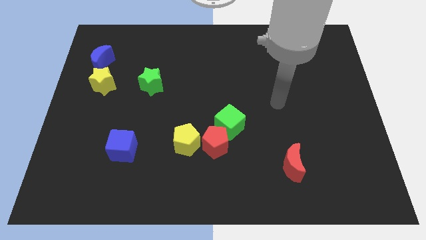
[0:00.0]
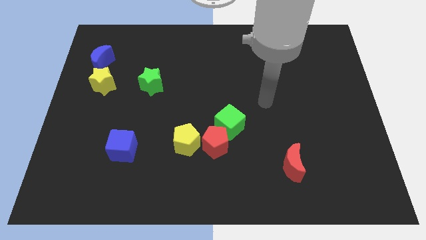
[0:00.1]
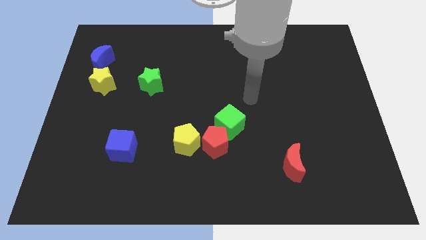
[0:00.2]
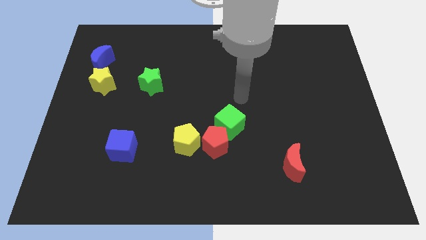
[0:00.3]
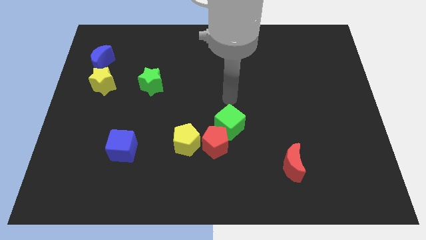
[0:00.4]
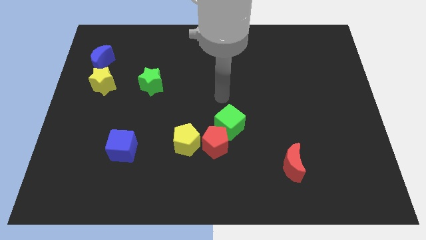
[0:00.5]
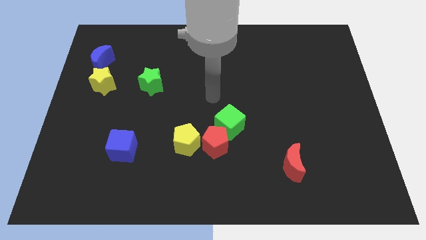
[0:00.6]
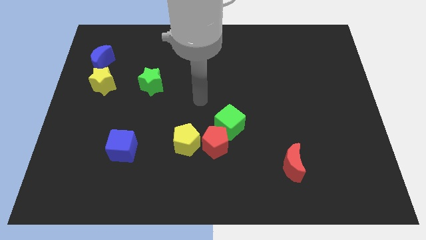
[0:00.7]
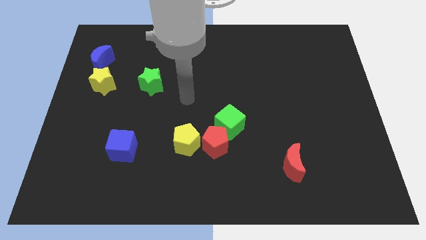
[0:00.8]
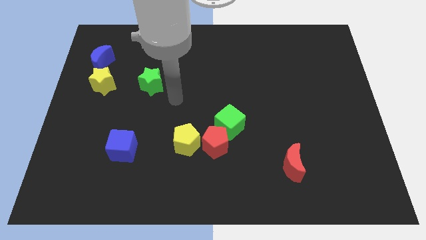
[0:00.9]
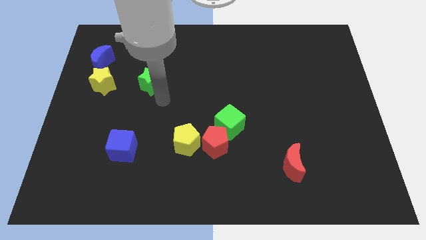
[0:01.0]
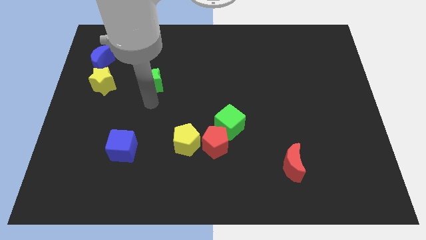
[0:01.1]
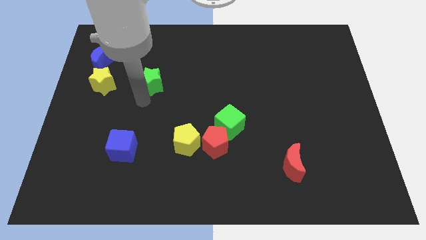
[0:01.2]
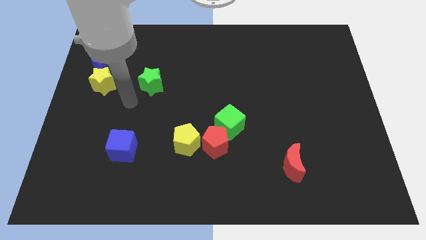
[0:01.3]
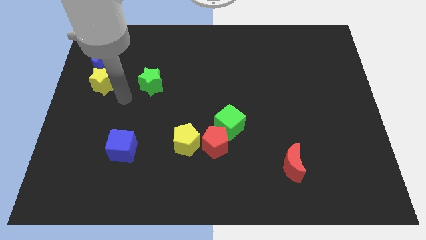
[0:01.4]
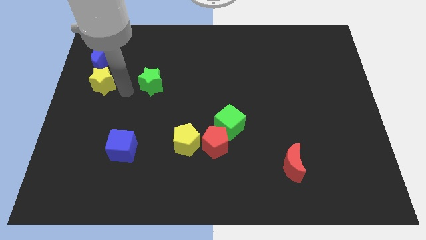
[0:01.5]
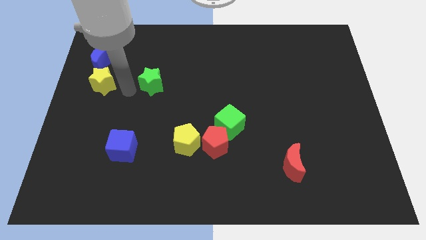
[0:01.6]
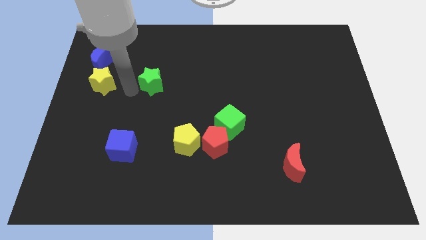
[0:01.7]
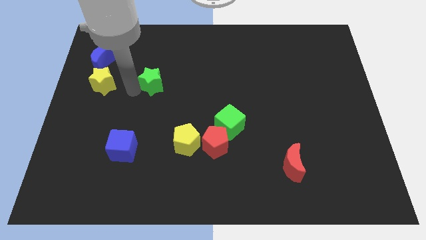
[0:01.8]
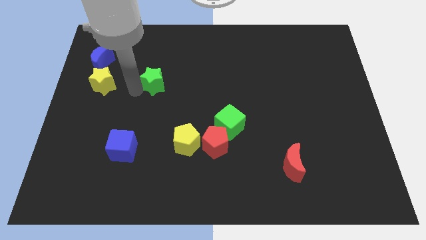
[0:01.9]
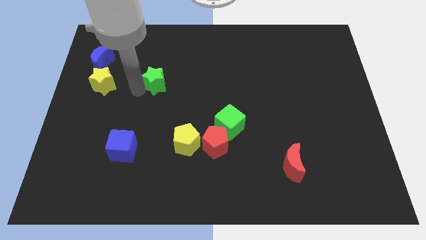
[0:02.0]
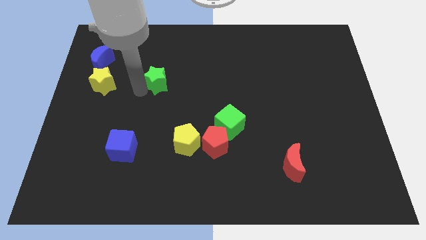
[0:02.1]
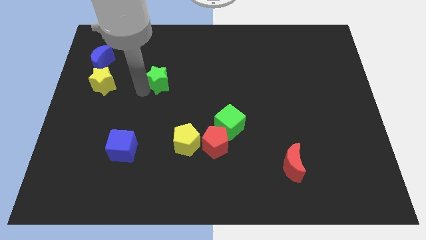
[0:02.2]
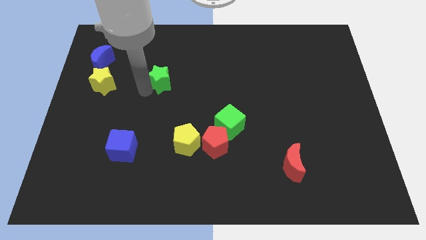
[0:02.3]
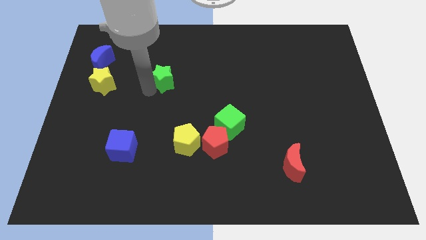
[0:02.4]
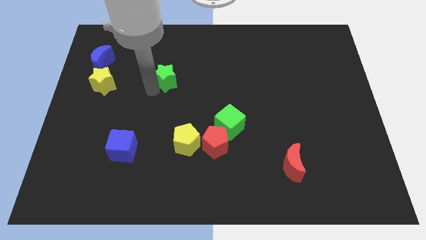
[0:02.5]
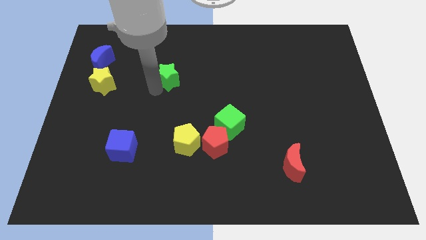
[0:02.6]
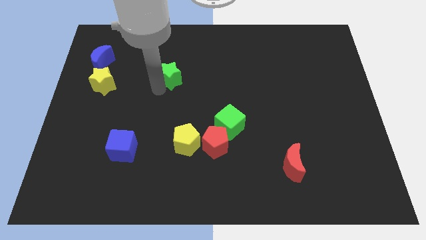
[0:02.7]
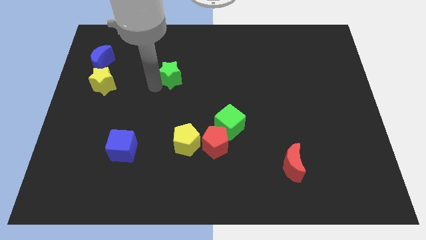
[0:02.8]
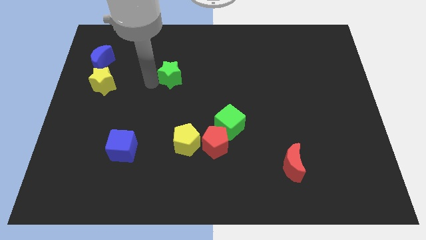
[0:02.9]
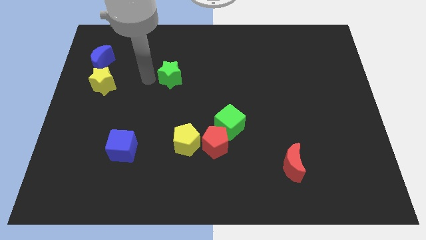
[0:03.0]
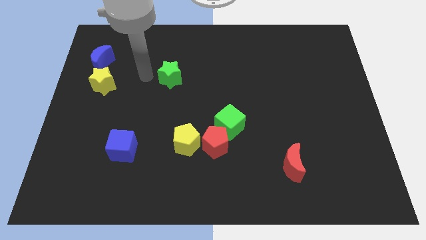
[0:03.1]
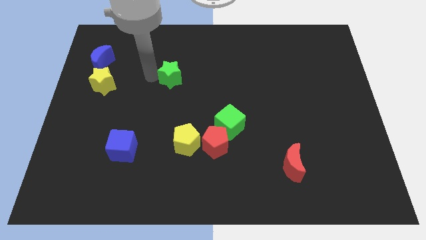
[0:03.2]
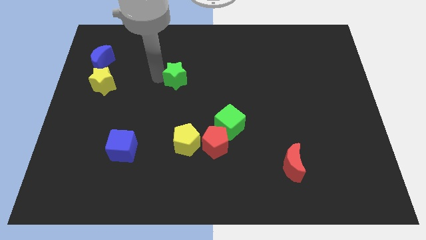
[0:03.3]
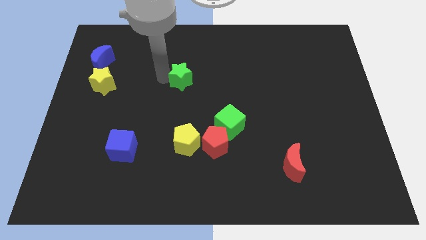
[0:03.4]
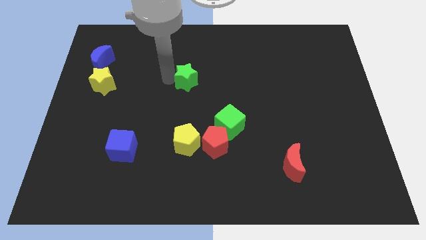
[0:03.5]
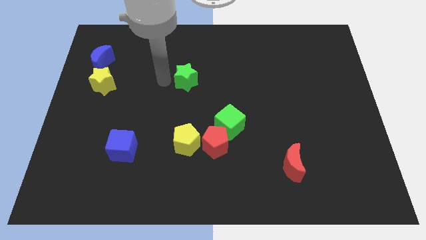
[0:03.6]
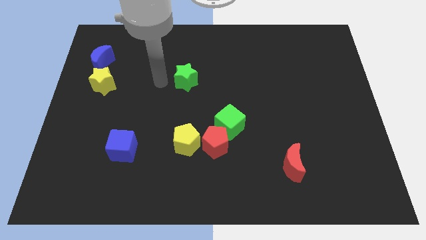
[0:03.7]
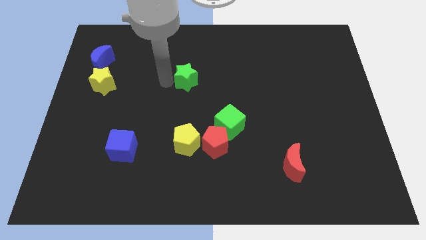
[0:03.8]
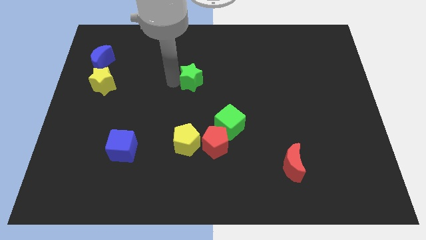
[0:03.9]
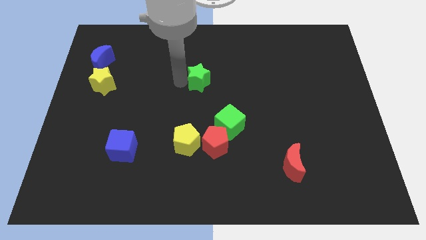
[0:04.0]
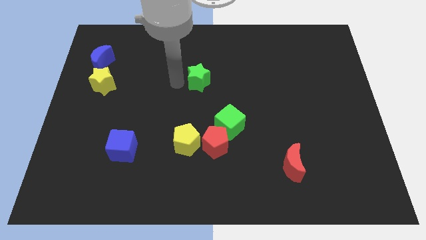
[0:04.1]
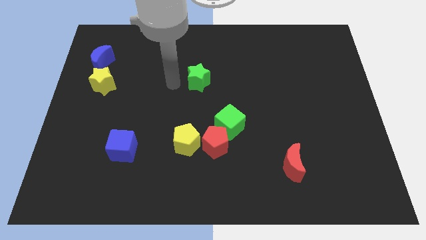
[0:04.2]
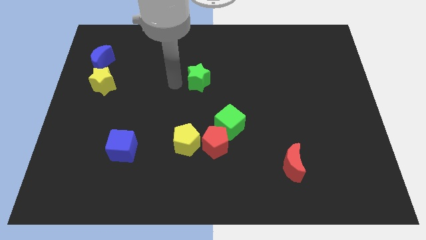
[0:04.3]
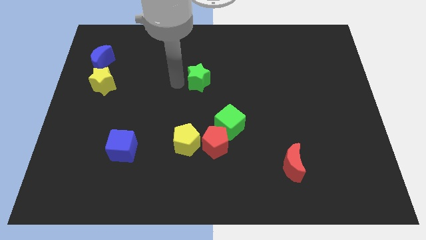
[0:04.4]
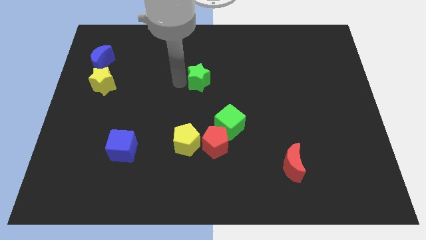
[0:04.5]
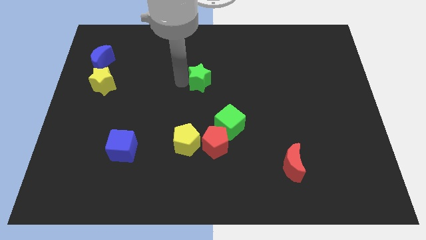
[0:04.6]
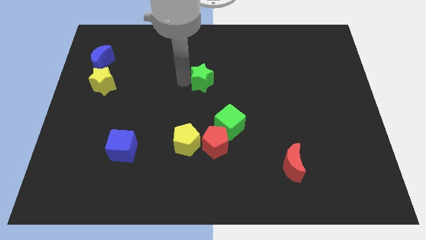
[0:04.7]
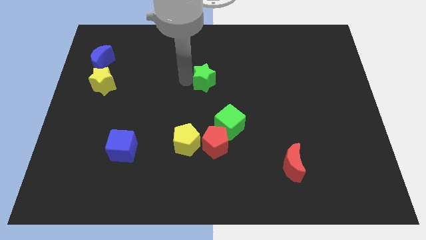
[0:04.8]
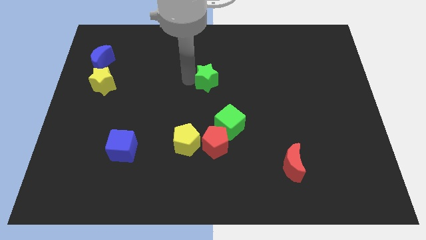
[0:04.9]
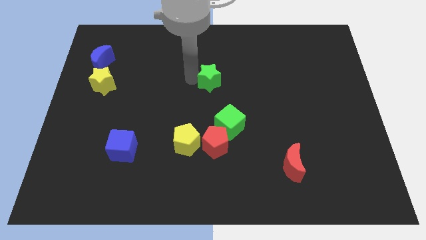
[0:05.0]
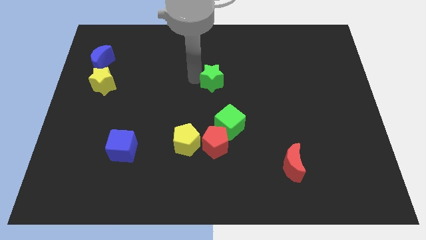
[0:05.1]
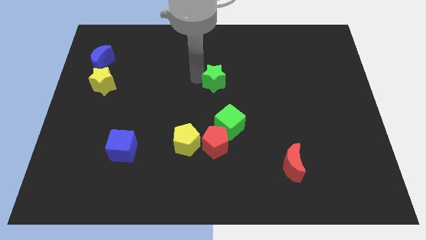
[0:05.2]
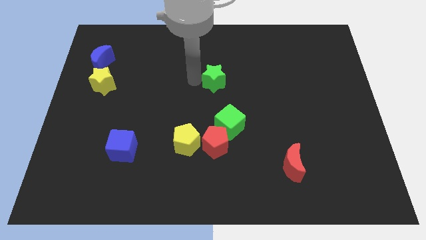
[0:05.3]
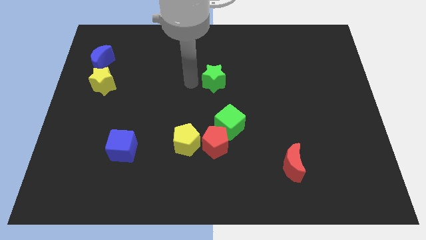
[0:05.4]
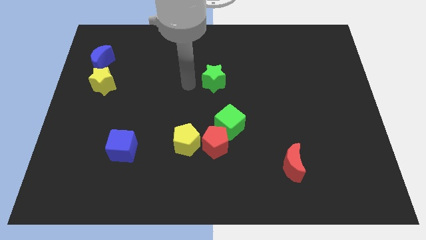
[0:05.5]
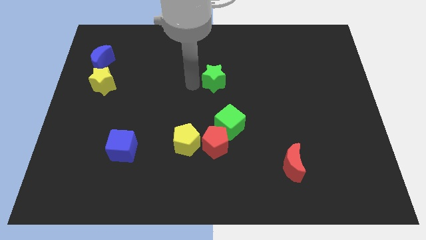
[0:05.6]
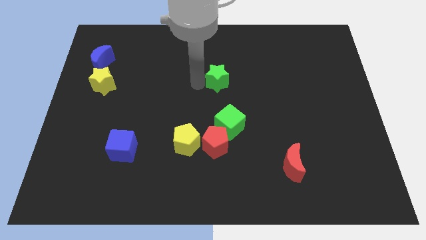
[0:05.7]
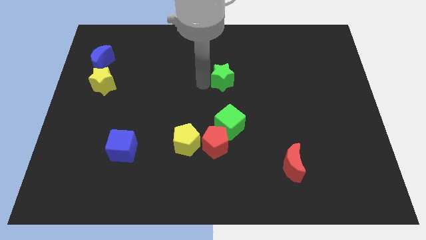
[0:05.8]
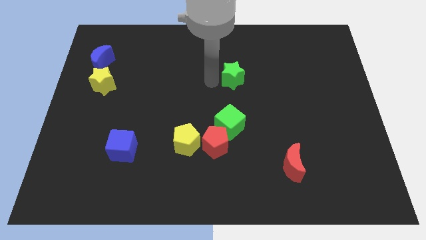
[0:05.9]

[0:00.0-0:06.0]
push the green star to the right

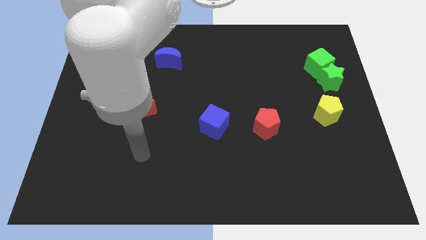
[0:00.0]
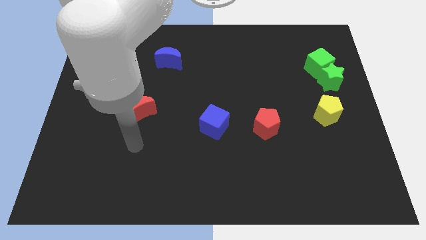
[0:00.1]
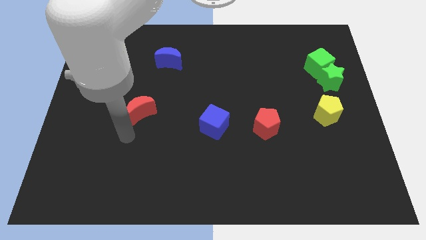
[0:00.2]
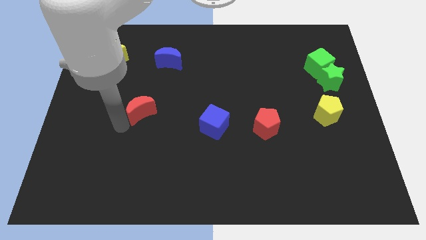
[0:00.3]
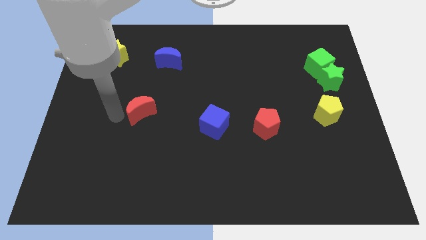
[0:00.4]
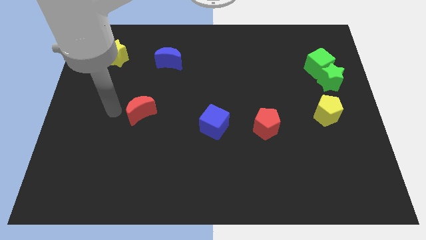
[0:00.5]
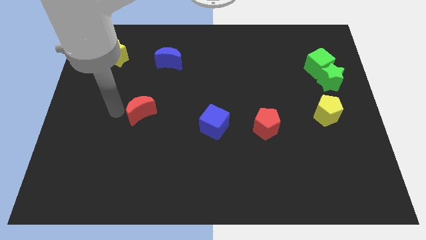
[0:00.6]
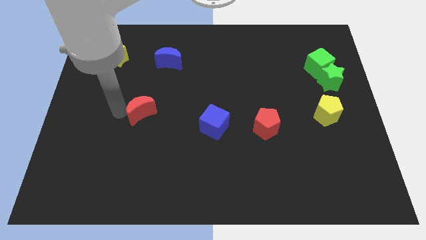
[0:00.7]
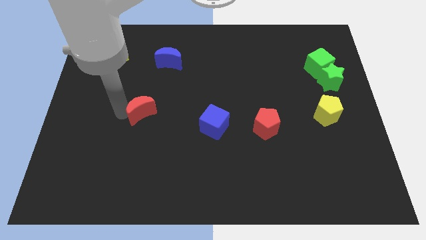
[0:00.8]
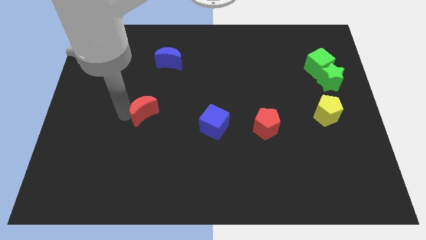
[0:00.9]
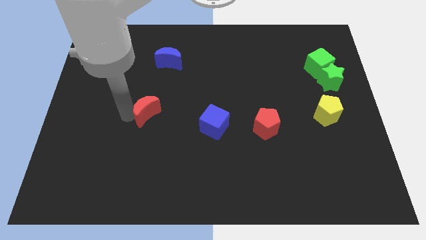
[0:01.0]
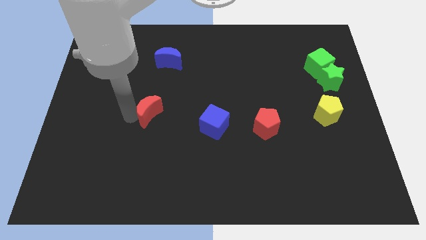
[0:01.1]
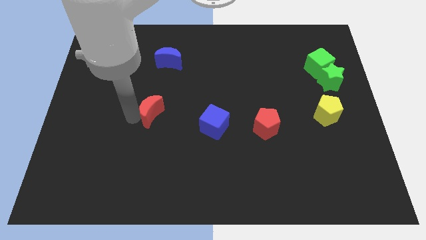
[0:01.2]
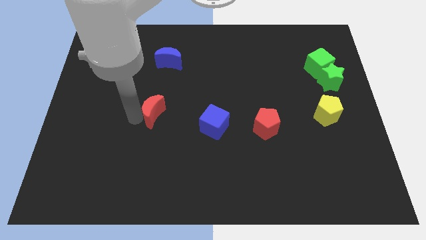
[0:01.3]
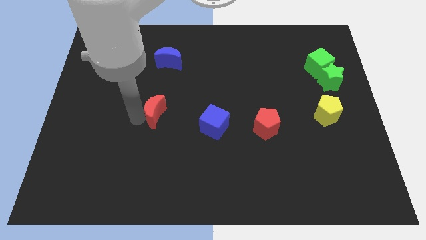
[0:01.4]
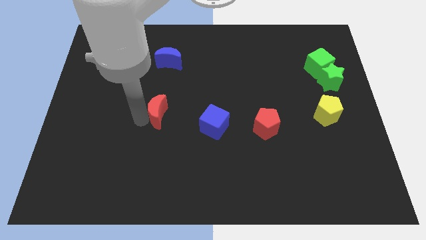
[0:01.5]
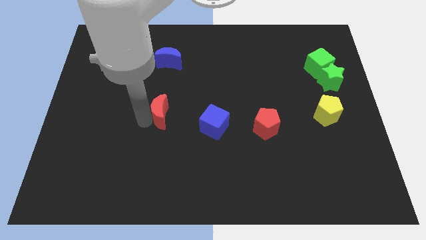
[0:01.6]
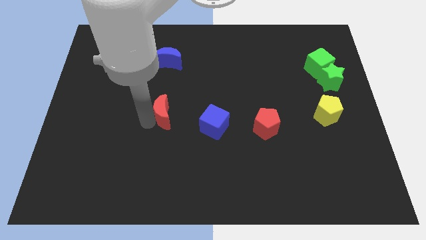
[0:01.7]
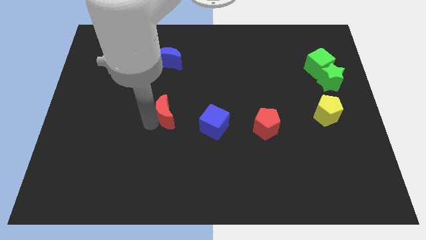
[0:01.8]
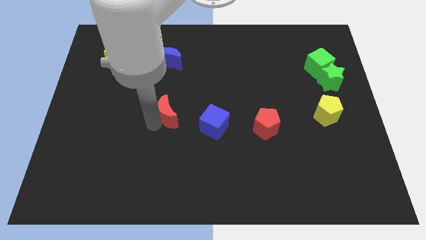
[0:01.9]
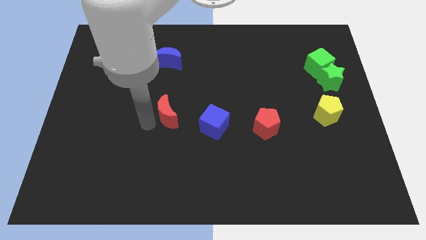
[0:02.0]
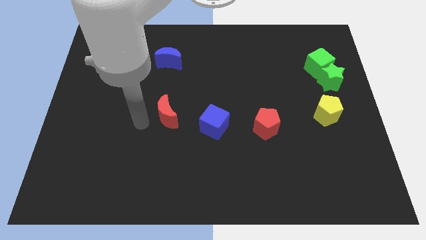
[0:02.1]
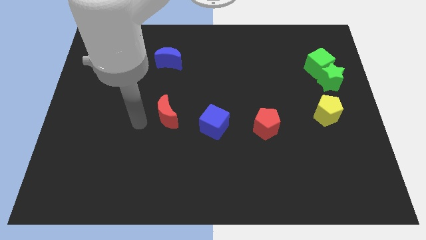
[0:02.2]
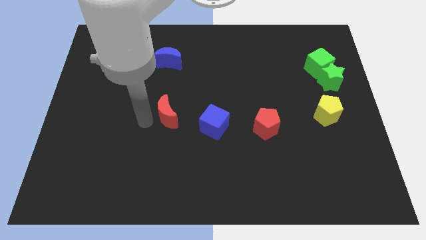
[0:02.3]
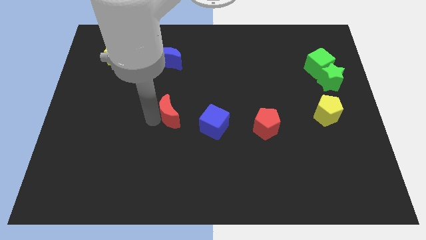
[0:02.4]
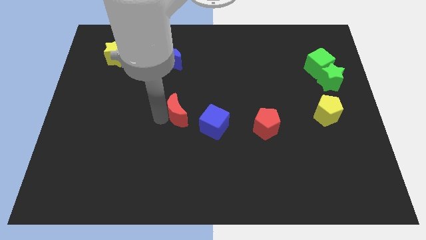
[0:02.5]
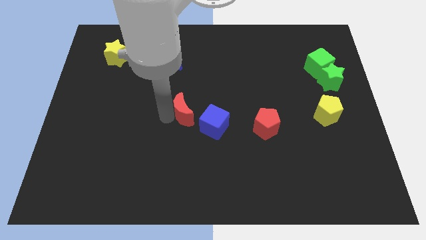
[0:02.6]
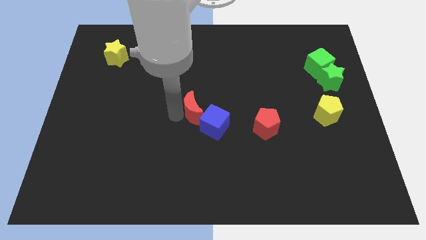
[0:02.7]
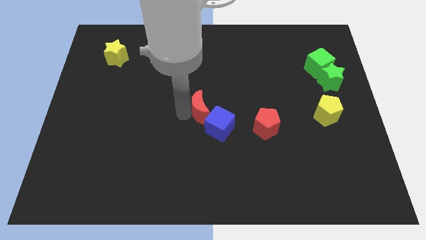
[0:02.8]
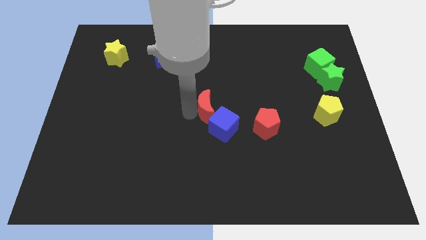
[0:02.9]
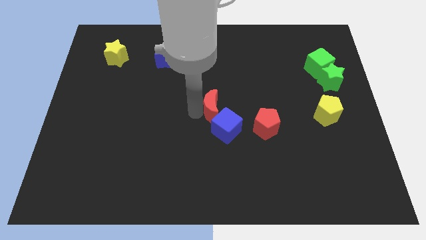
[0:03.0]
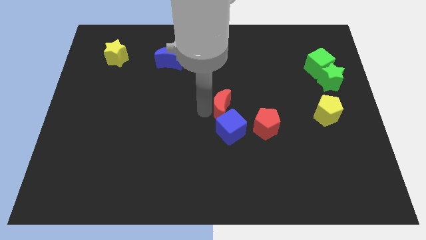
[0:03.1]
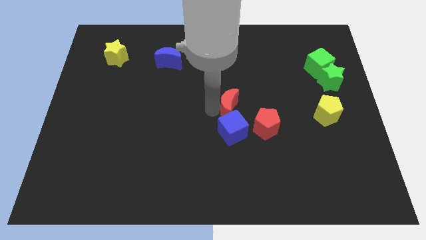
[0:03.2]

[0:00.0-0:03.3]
move the red moon to the right
